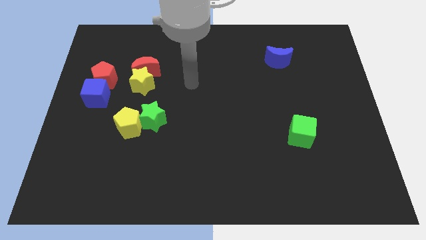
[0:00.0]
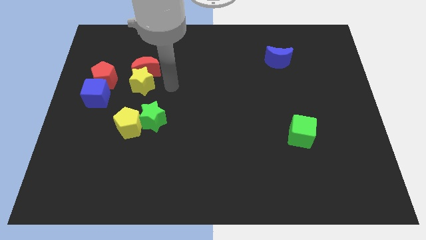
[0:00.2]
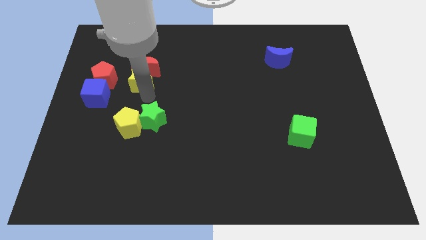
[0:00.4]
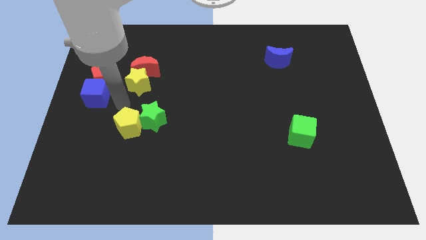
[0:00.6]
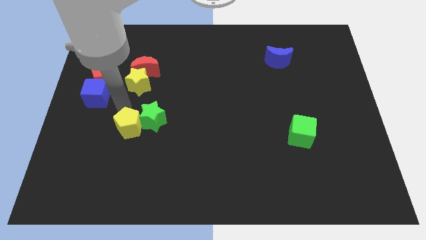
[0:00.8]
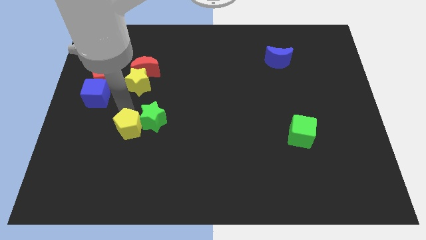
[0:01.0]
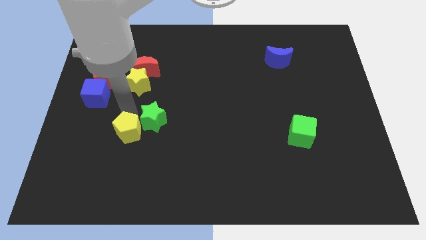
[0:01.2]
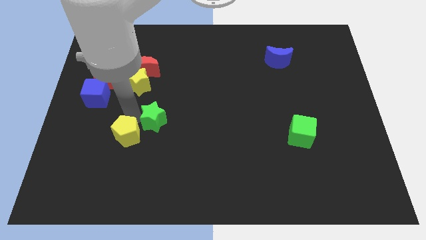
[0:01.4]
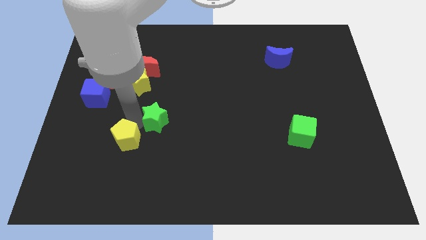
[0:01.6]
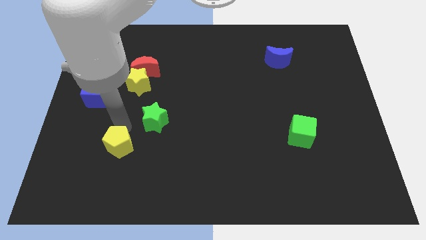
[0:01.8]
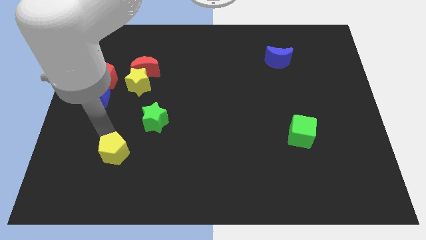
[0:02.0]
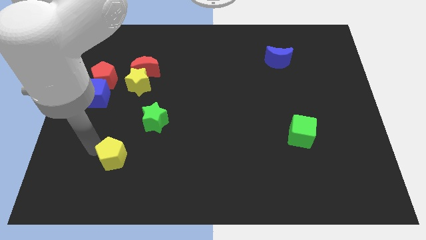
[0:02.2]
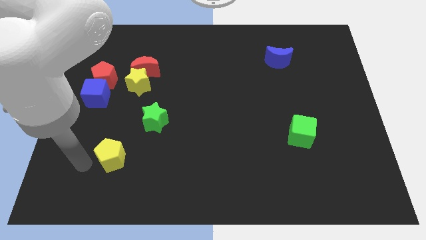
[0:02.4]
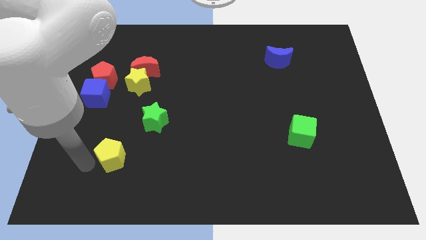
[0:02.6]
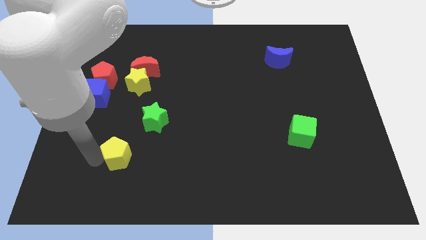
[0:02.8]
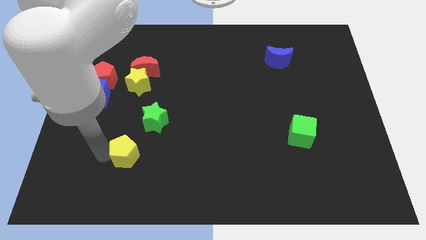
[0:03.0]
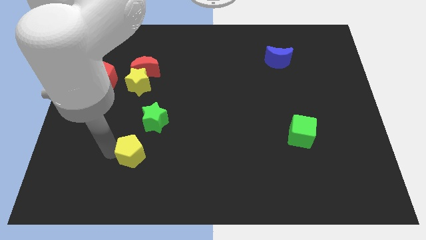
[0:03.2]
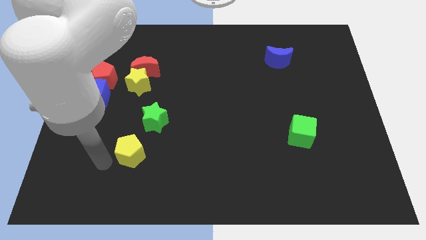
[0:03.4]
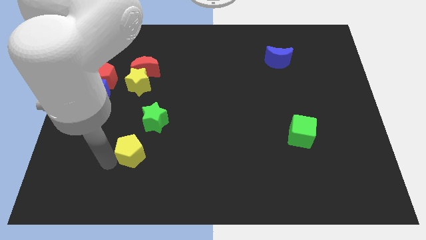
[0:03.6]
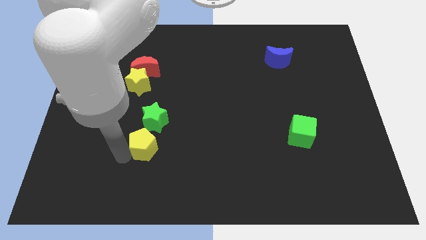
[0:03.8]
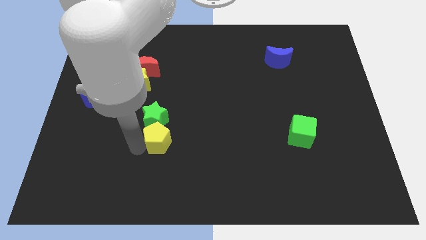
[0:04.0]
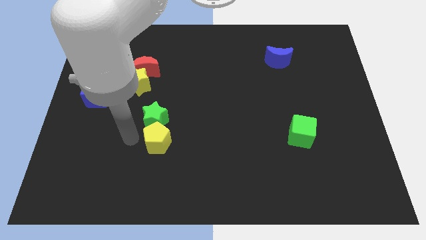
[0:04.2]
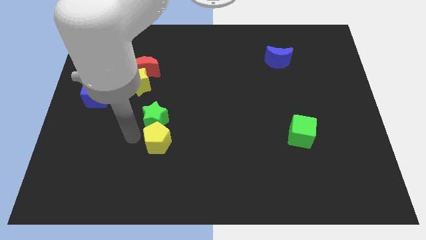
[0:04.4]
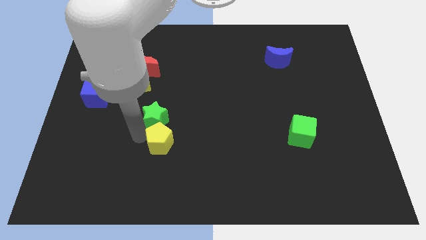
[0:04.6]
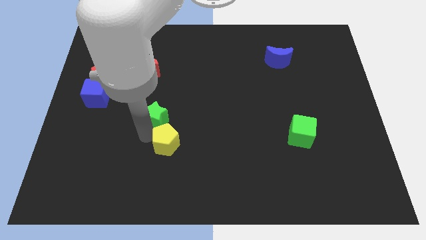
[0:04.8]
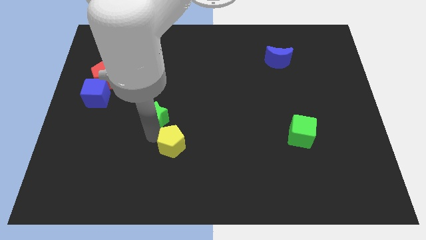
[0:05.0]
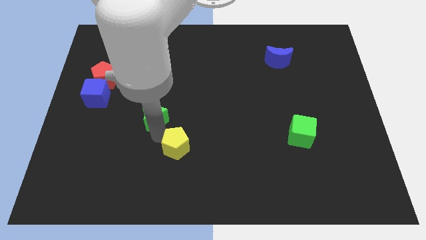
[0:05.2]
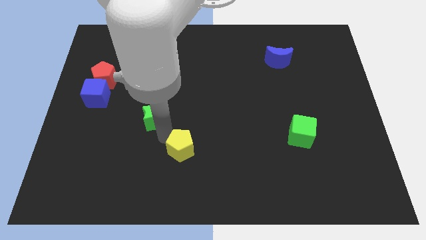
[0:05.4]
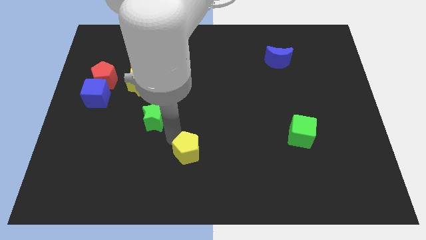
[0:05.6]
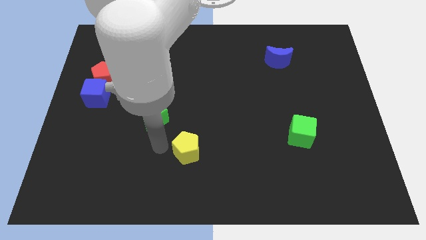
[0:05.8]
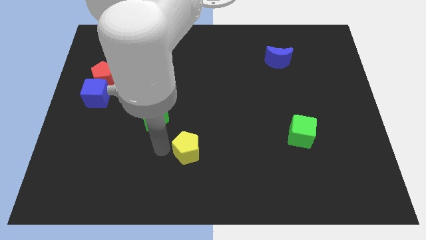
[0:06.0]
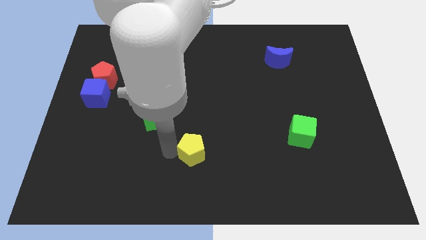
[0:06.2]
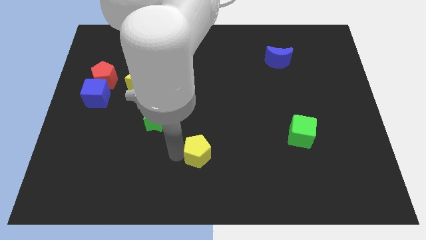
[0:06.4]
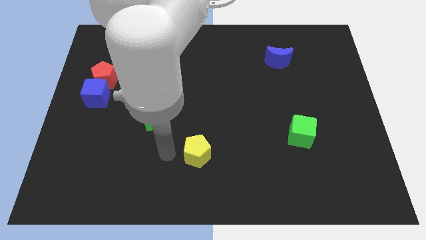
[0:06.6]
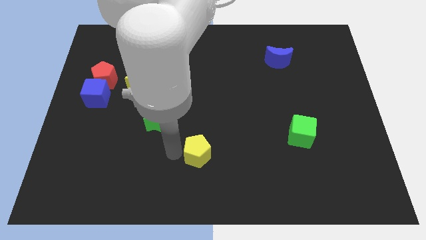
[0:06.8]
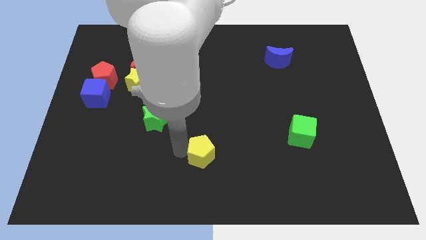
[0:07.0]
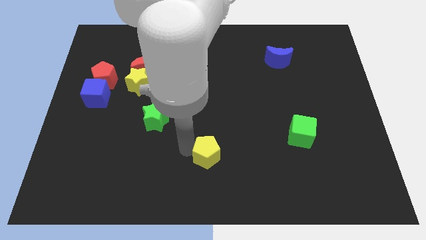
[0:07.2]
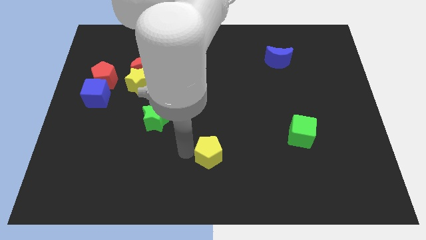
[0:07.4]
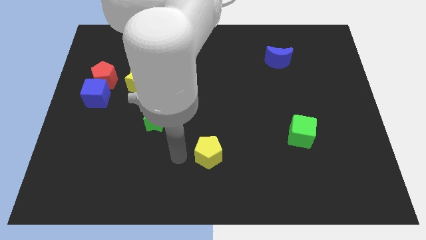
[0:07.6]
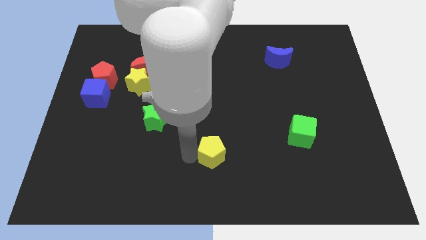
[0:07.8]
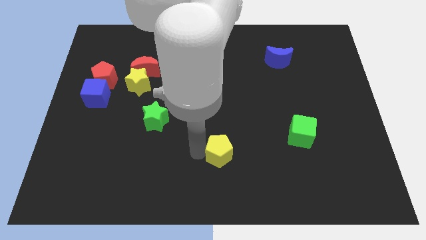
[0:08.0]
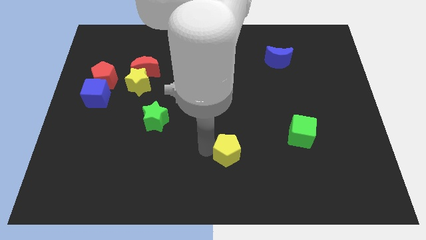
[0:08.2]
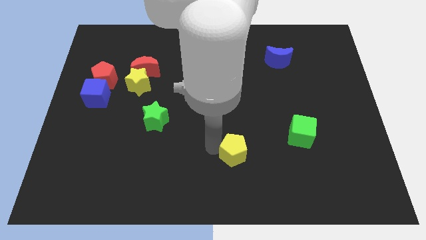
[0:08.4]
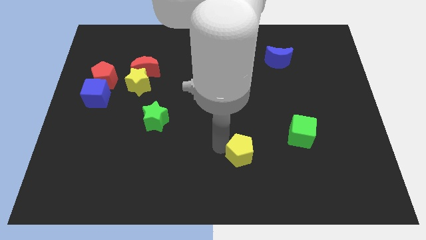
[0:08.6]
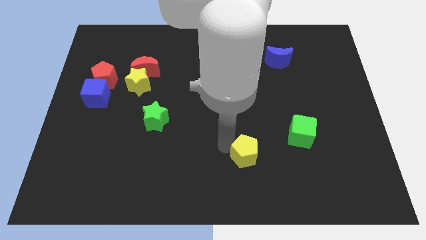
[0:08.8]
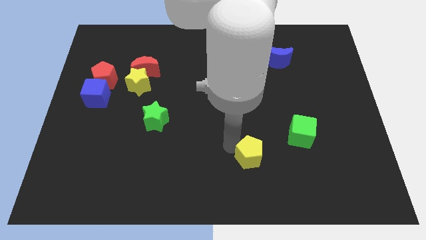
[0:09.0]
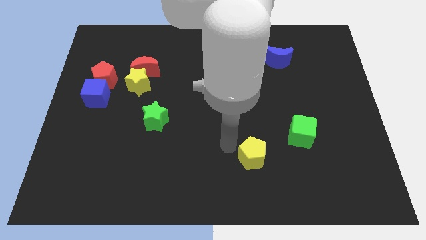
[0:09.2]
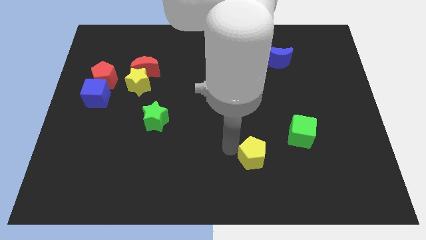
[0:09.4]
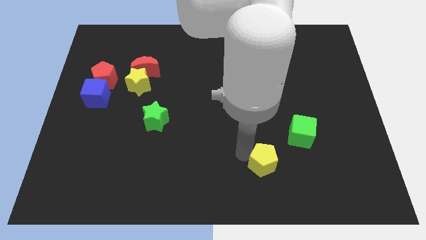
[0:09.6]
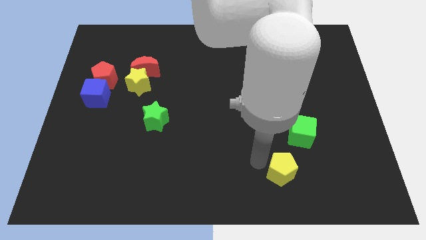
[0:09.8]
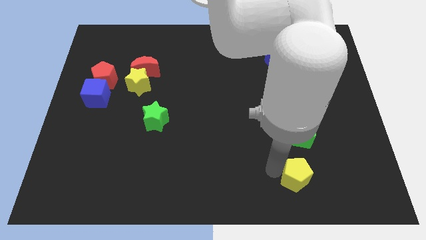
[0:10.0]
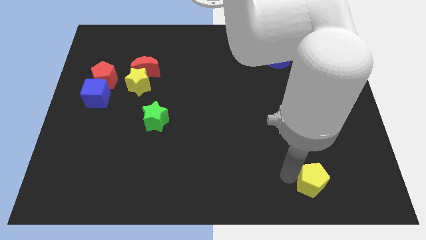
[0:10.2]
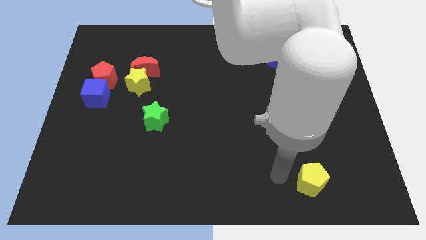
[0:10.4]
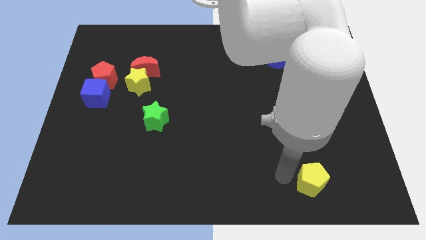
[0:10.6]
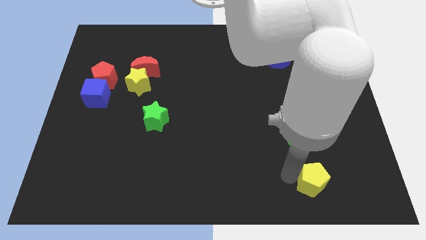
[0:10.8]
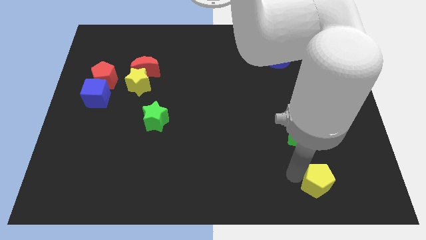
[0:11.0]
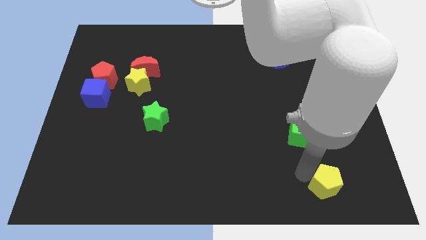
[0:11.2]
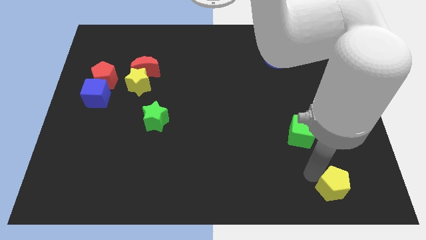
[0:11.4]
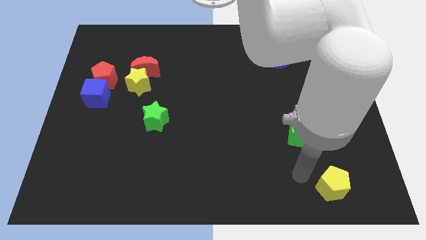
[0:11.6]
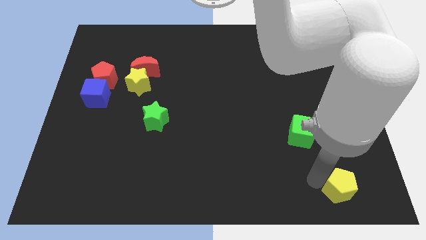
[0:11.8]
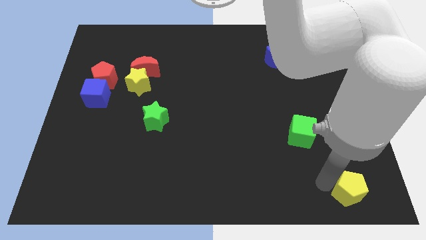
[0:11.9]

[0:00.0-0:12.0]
move the yellow pentagon to the bottom right
